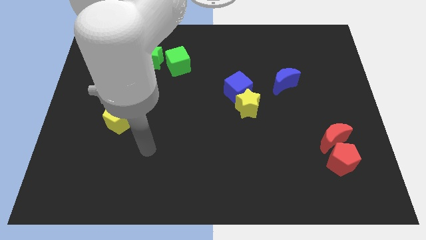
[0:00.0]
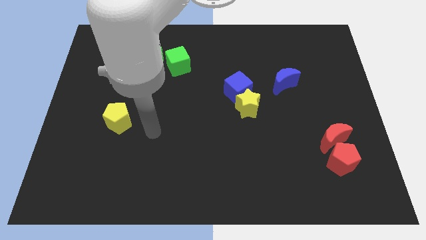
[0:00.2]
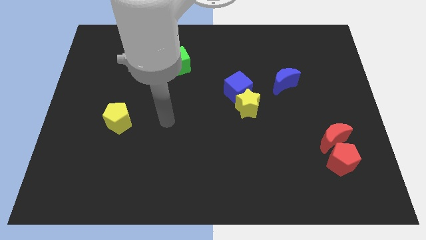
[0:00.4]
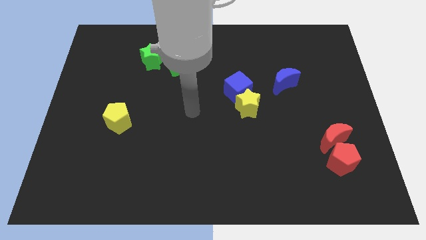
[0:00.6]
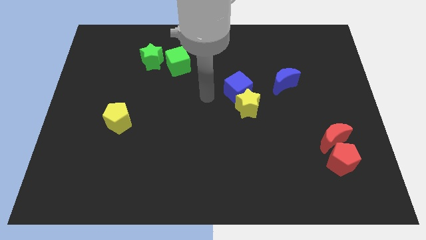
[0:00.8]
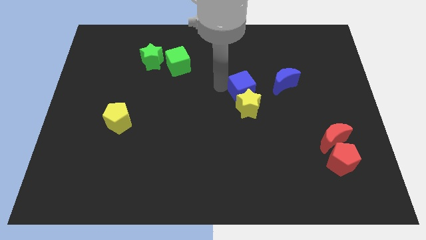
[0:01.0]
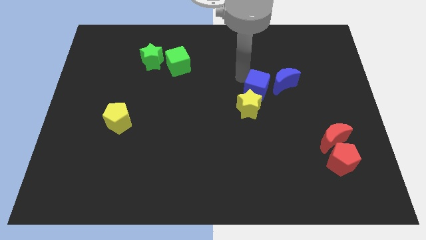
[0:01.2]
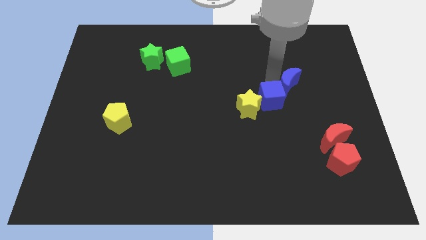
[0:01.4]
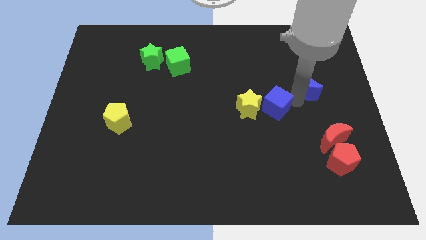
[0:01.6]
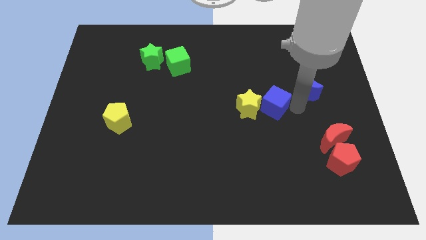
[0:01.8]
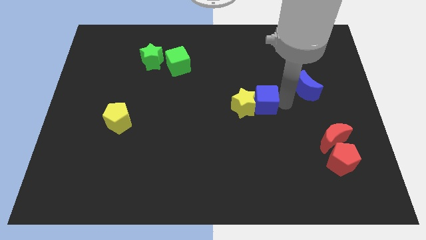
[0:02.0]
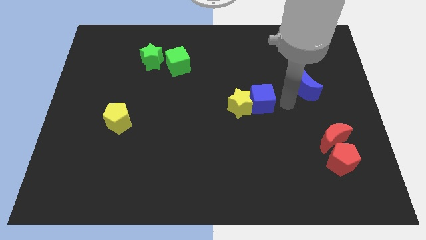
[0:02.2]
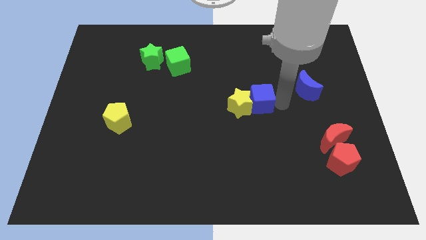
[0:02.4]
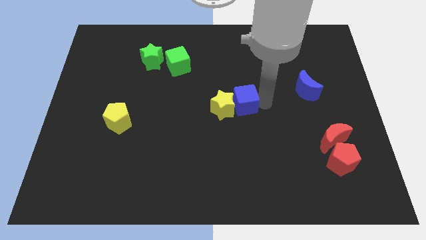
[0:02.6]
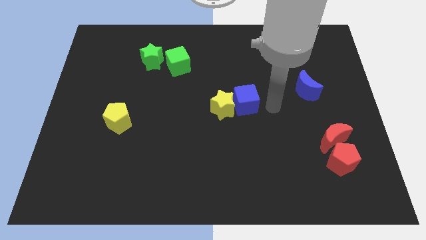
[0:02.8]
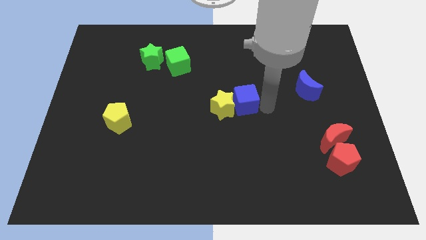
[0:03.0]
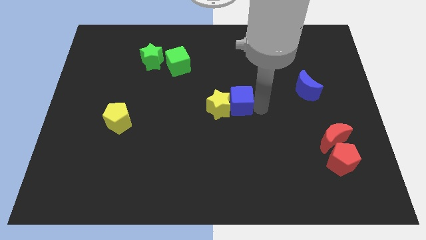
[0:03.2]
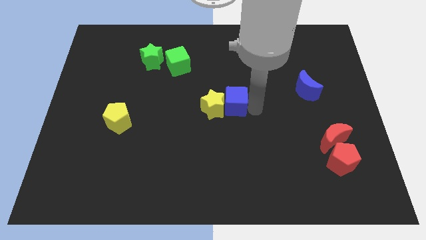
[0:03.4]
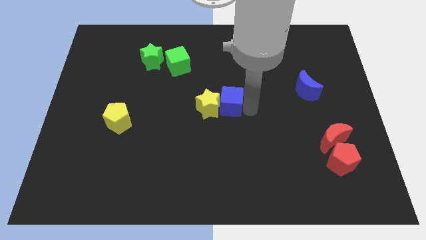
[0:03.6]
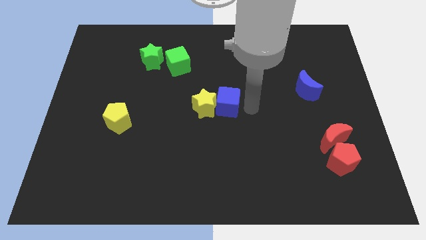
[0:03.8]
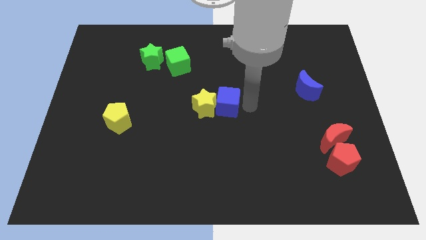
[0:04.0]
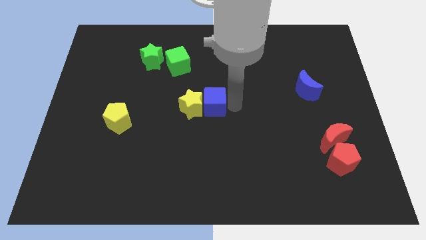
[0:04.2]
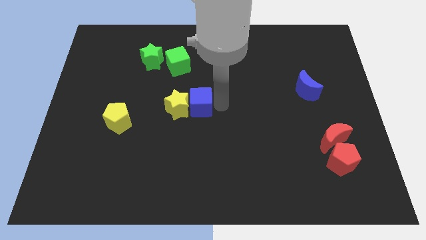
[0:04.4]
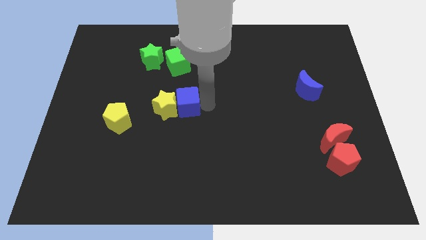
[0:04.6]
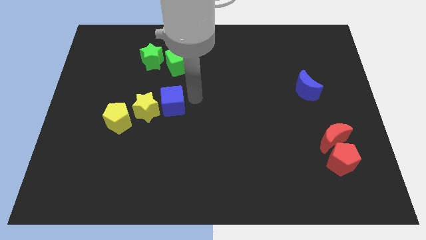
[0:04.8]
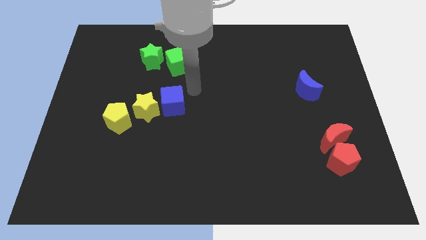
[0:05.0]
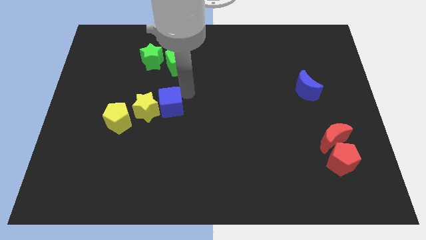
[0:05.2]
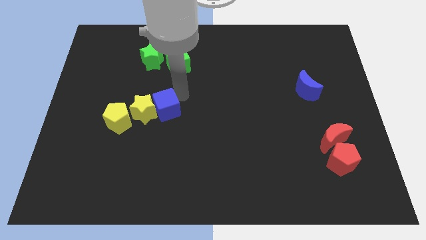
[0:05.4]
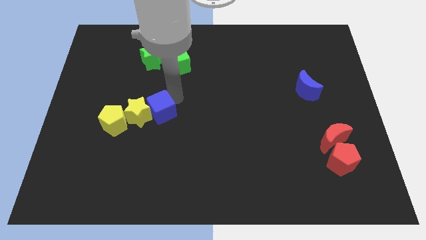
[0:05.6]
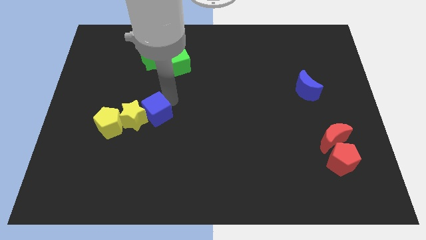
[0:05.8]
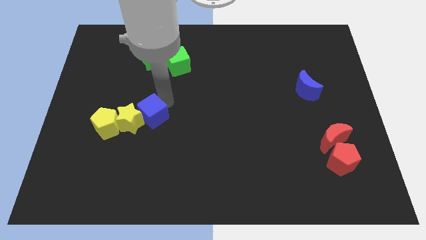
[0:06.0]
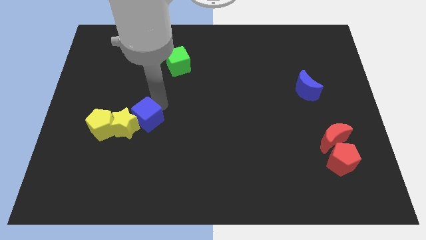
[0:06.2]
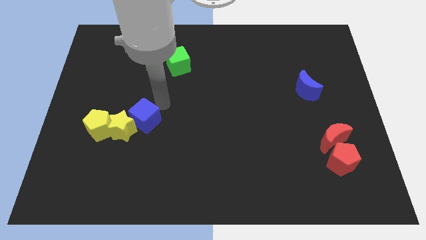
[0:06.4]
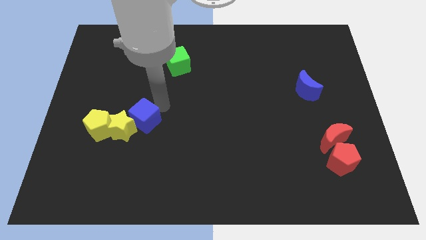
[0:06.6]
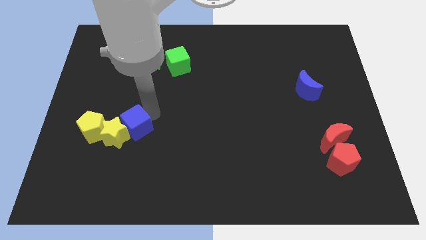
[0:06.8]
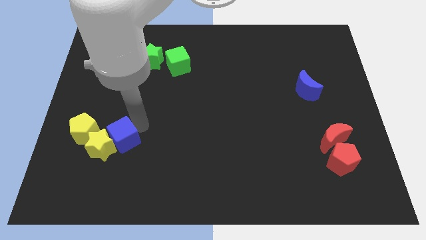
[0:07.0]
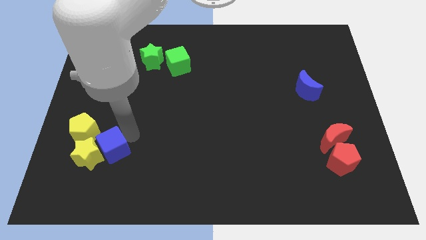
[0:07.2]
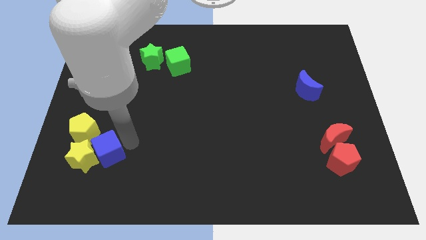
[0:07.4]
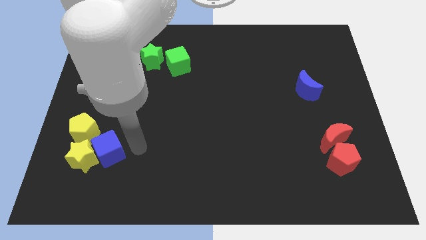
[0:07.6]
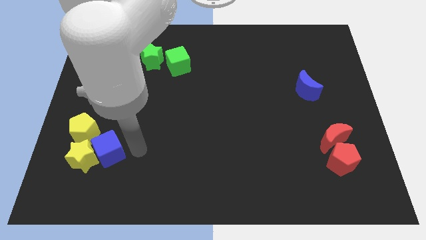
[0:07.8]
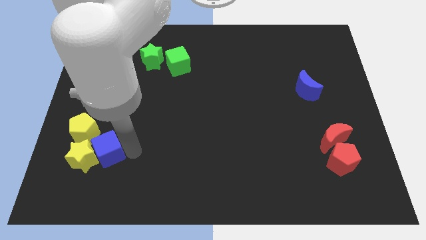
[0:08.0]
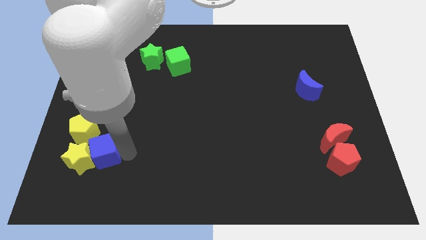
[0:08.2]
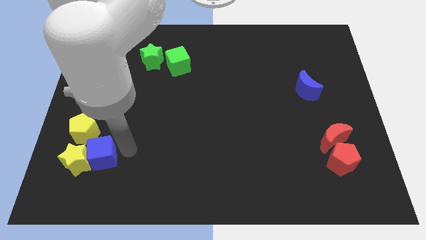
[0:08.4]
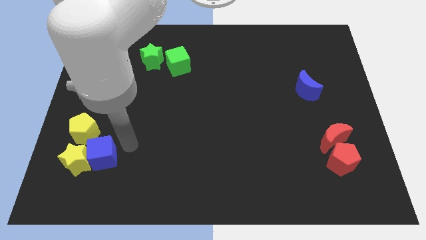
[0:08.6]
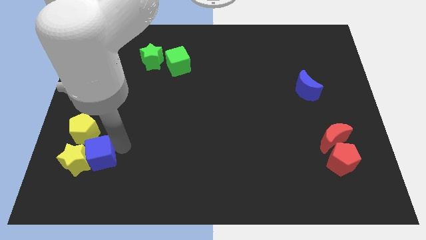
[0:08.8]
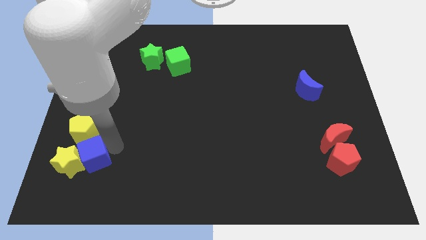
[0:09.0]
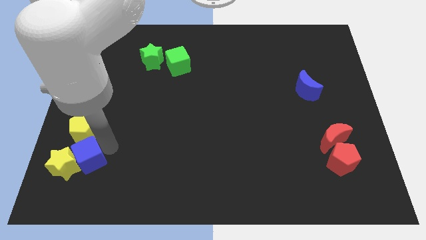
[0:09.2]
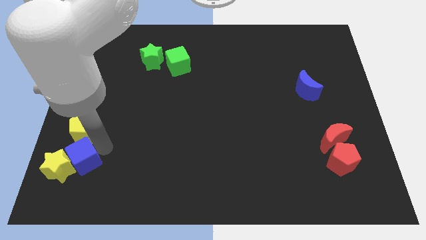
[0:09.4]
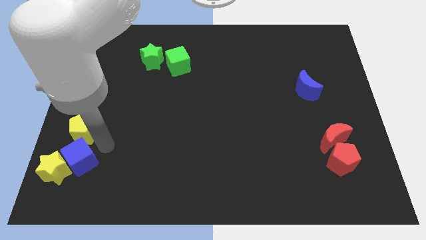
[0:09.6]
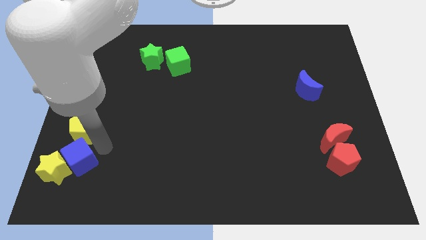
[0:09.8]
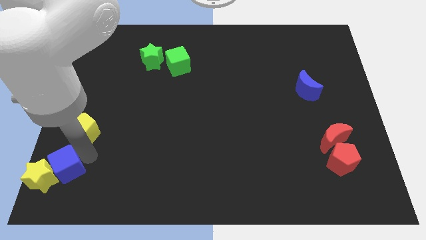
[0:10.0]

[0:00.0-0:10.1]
slide the blue cube to the bottom left

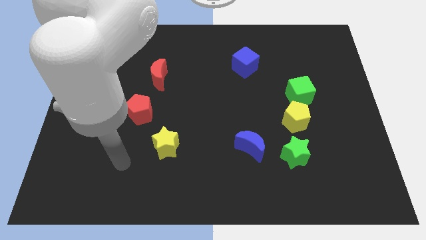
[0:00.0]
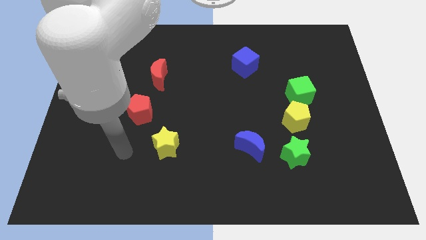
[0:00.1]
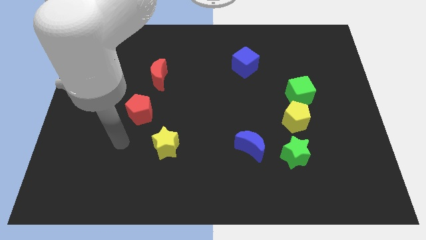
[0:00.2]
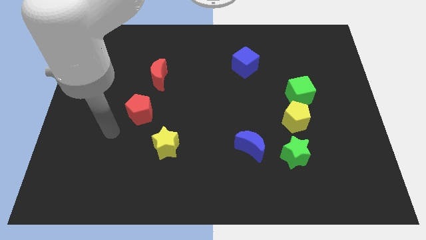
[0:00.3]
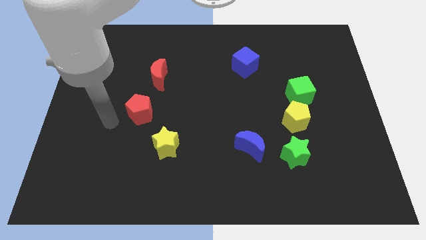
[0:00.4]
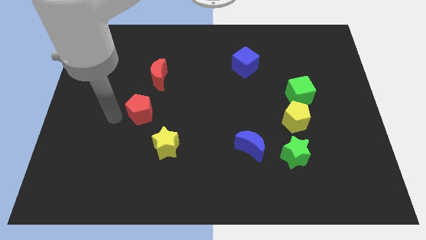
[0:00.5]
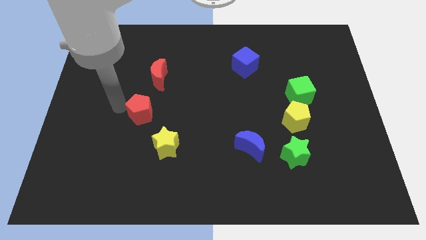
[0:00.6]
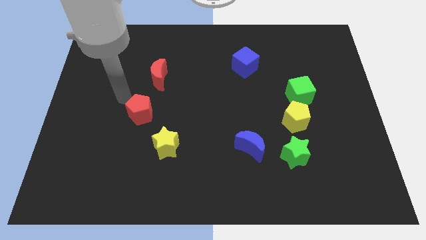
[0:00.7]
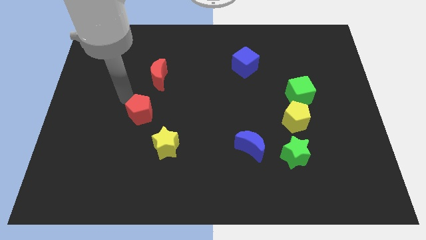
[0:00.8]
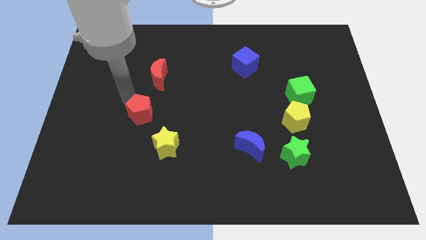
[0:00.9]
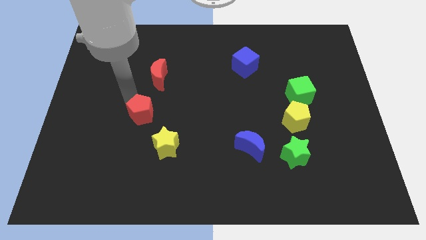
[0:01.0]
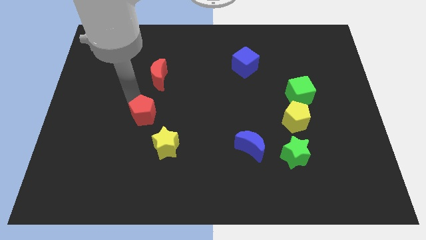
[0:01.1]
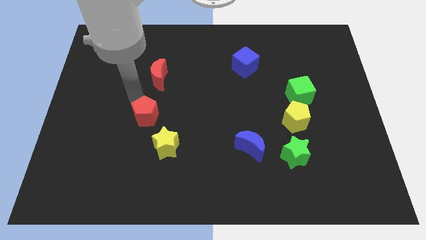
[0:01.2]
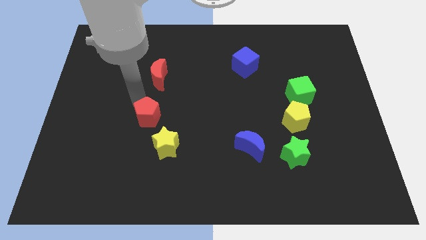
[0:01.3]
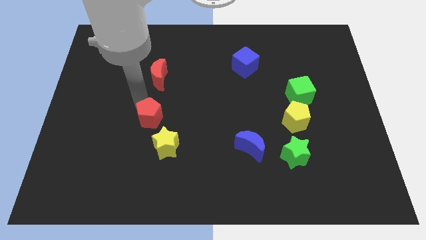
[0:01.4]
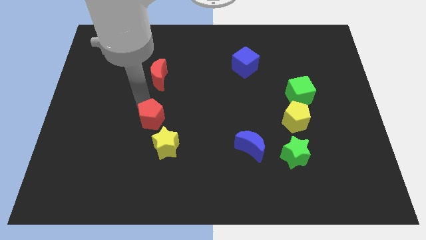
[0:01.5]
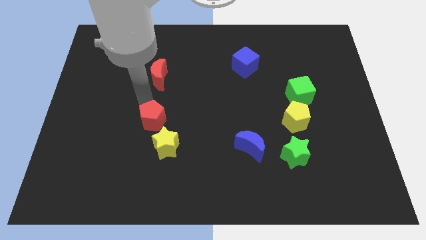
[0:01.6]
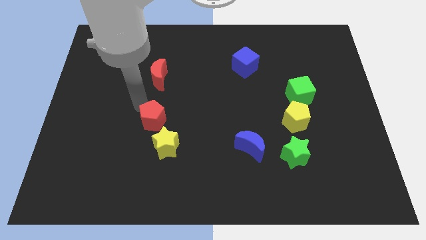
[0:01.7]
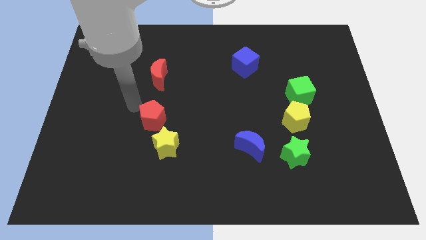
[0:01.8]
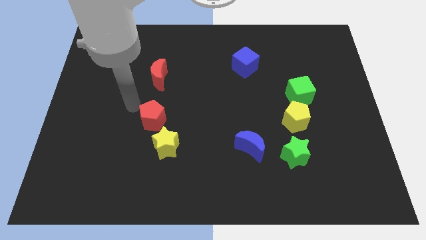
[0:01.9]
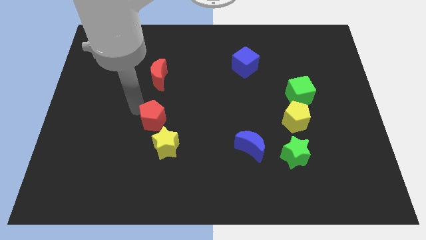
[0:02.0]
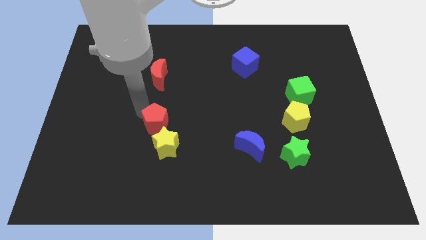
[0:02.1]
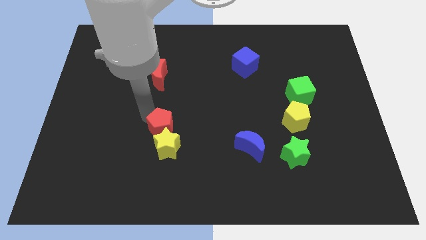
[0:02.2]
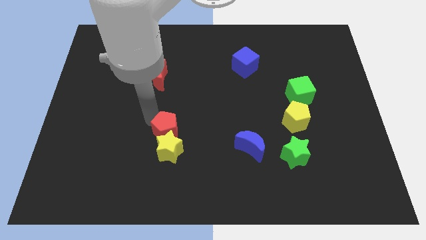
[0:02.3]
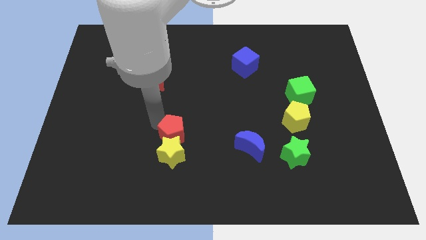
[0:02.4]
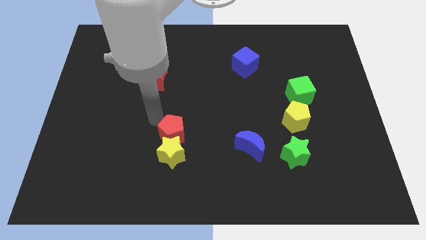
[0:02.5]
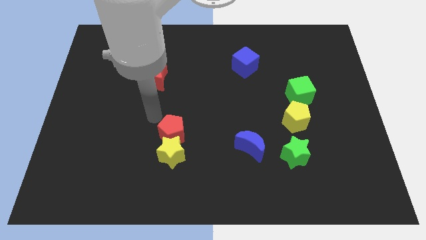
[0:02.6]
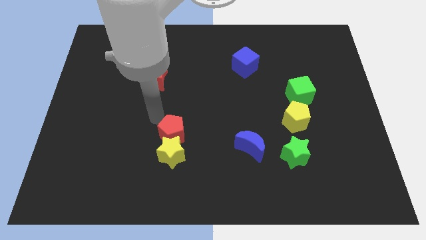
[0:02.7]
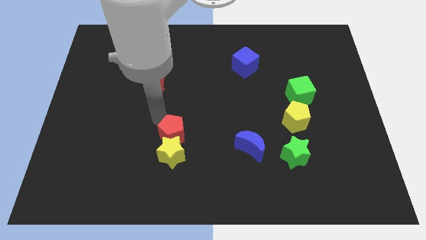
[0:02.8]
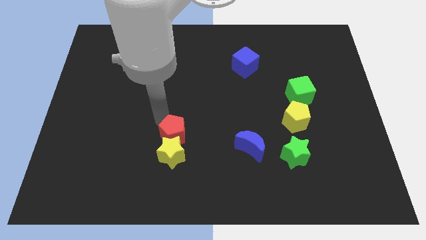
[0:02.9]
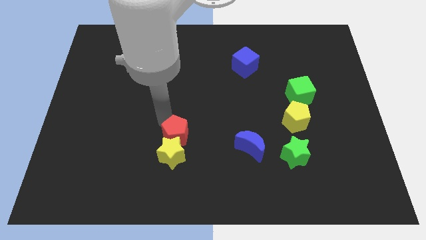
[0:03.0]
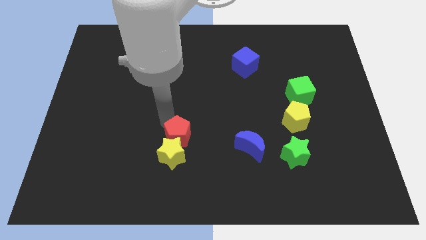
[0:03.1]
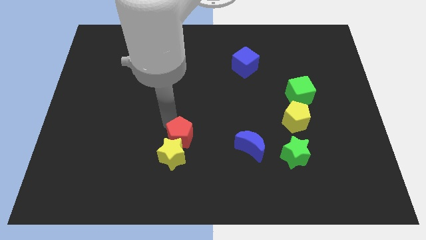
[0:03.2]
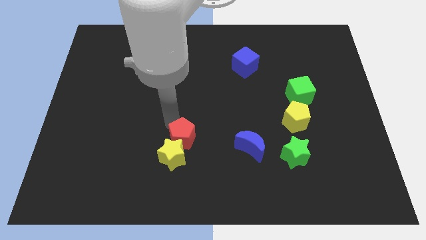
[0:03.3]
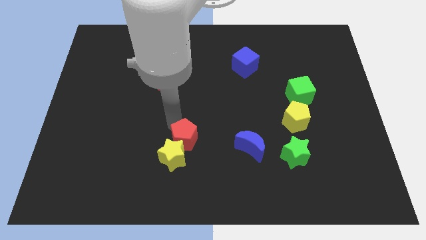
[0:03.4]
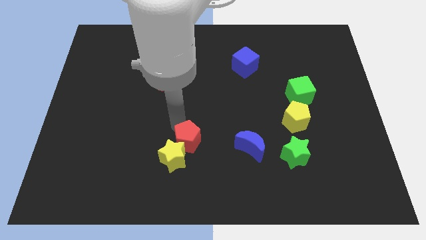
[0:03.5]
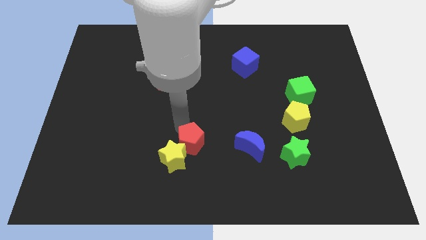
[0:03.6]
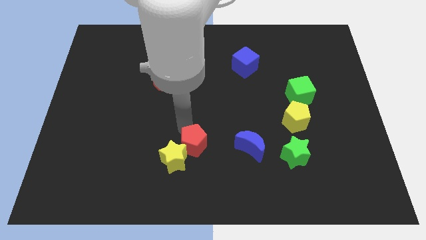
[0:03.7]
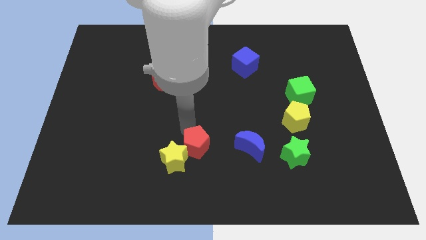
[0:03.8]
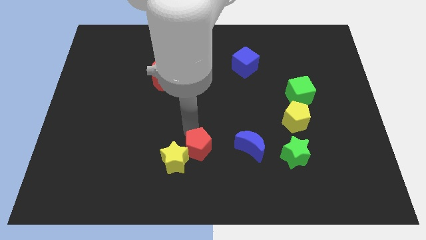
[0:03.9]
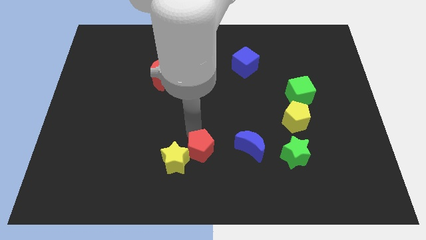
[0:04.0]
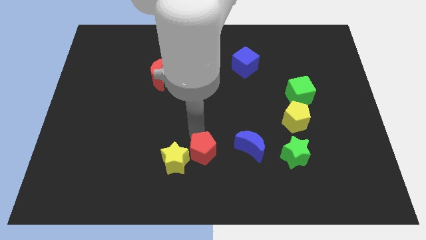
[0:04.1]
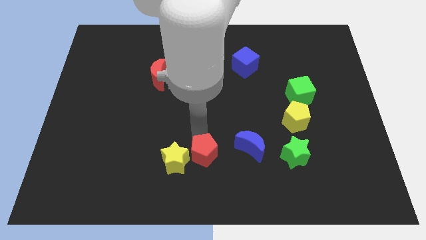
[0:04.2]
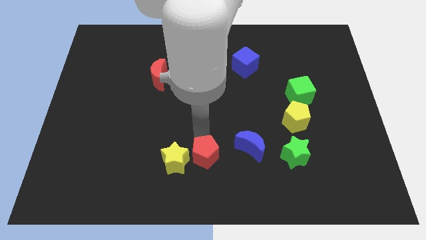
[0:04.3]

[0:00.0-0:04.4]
push the red pentagon to the bottom
